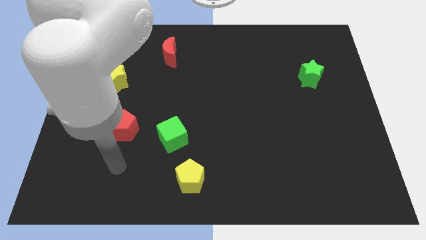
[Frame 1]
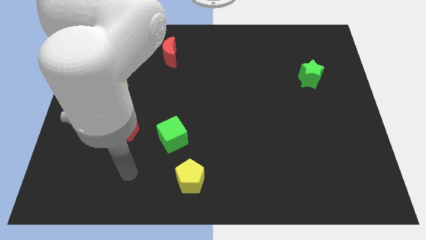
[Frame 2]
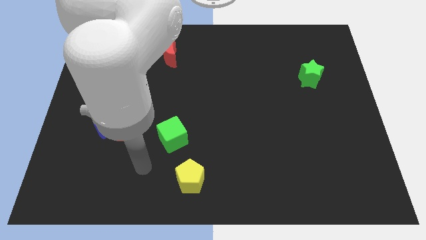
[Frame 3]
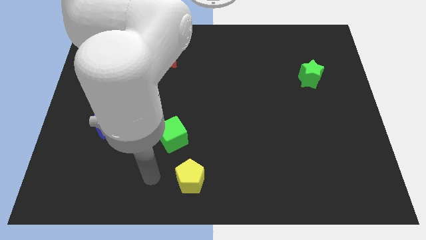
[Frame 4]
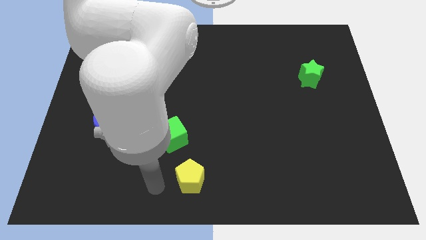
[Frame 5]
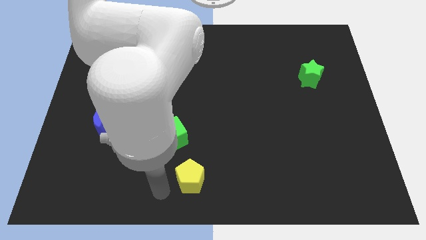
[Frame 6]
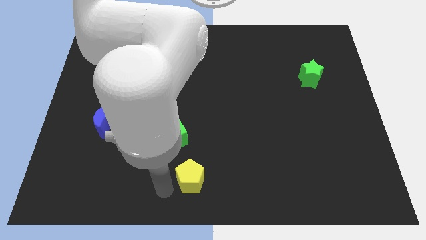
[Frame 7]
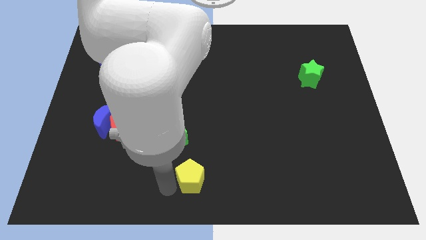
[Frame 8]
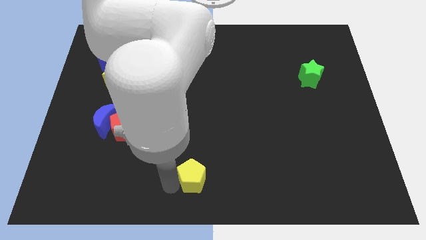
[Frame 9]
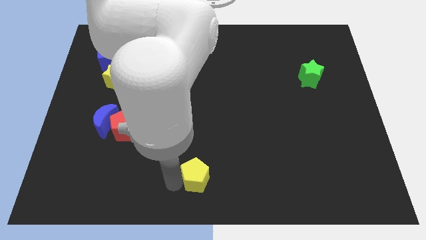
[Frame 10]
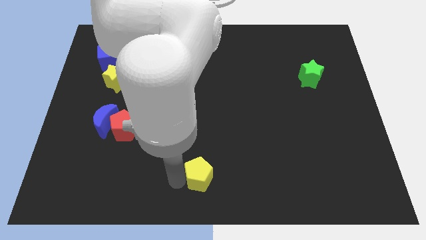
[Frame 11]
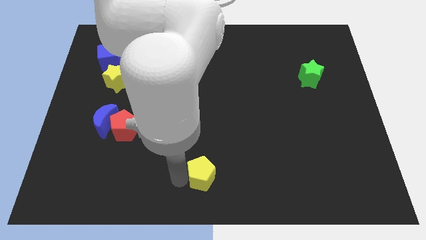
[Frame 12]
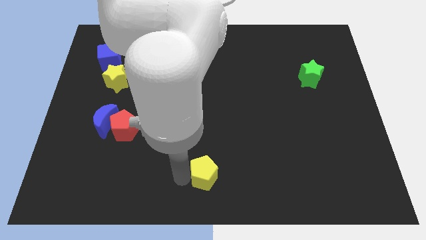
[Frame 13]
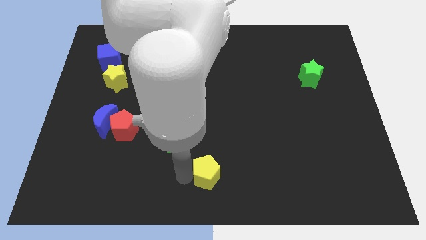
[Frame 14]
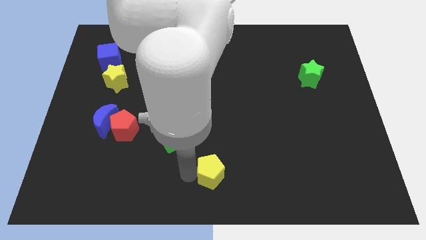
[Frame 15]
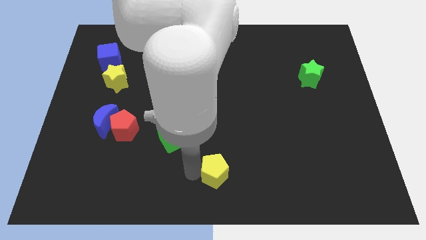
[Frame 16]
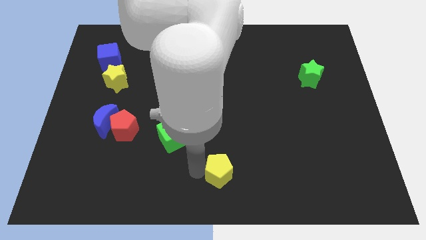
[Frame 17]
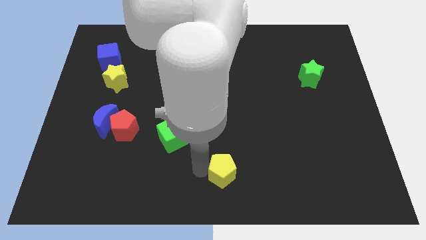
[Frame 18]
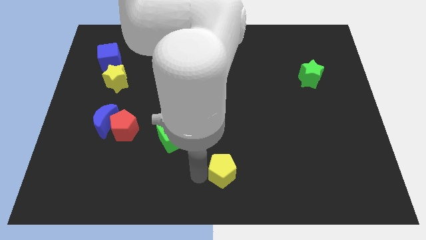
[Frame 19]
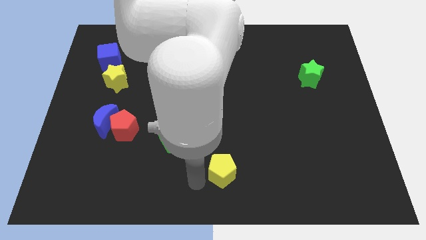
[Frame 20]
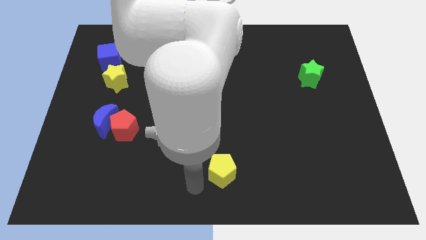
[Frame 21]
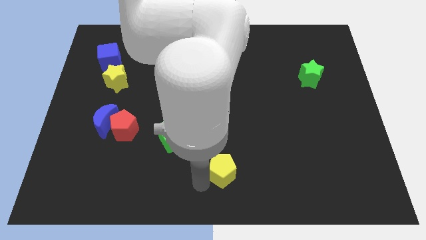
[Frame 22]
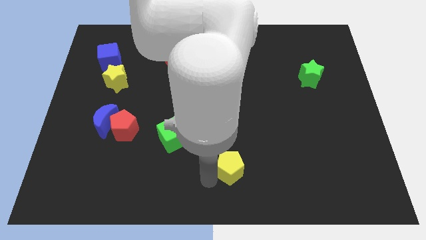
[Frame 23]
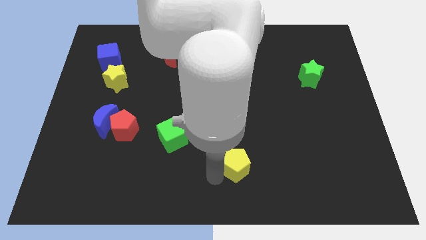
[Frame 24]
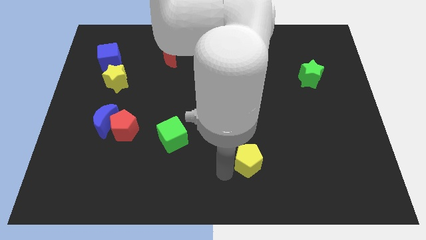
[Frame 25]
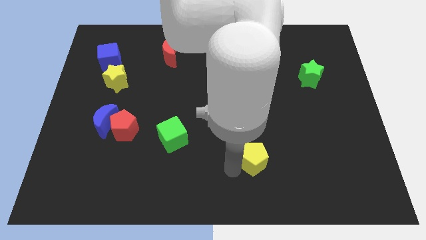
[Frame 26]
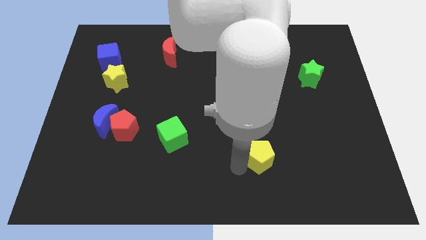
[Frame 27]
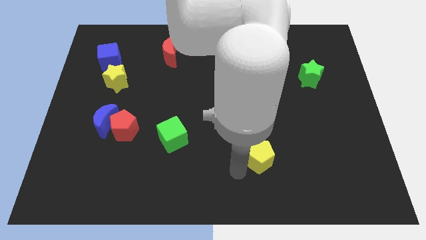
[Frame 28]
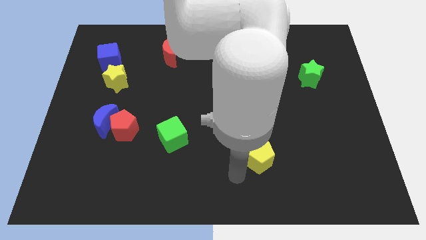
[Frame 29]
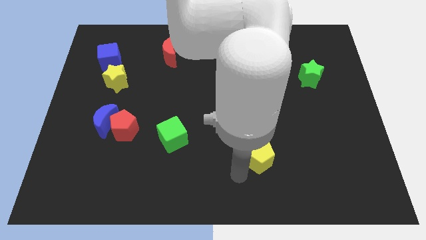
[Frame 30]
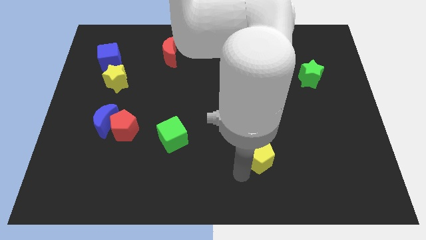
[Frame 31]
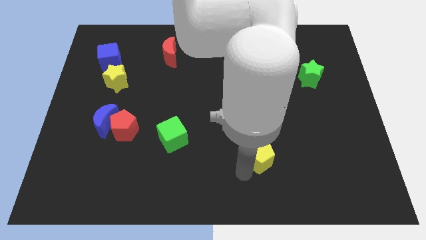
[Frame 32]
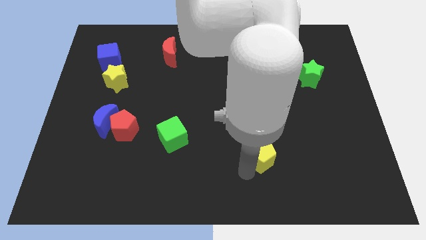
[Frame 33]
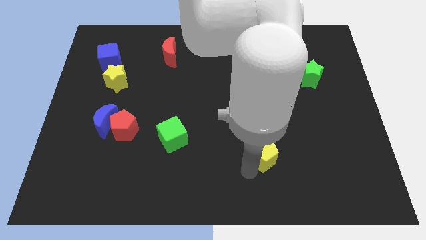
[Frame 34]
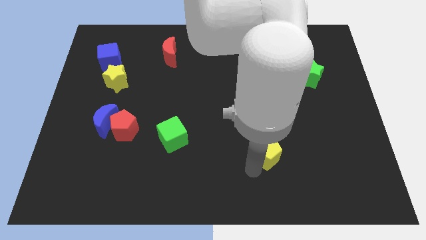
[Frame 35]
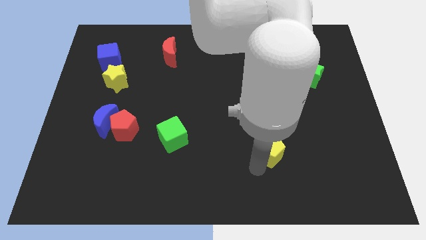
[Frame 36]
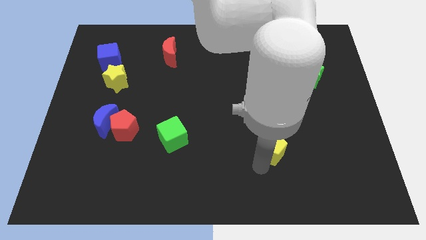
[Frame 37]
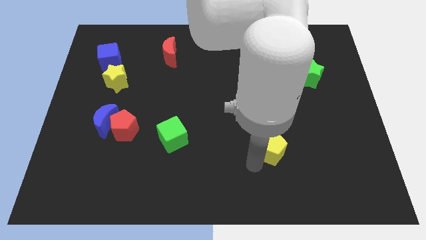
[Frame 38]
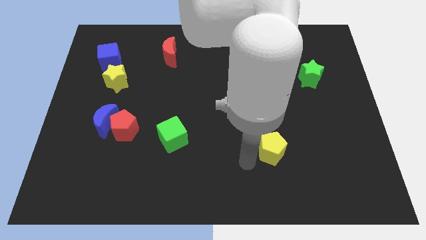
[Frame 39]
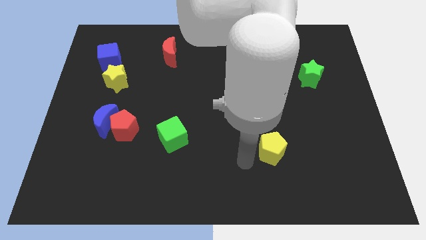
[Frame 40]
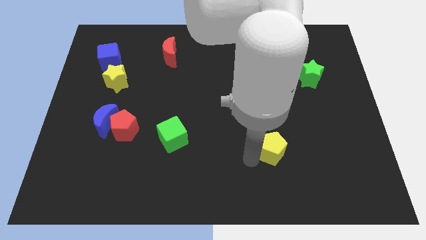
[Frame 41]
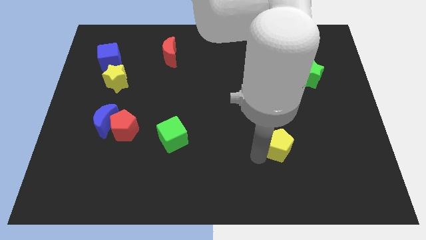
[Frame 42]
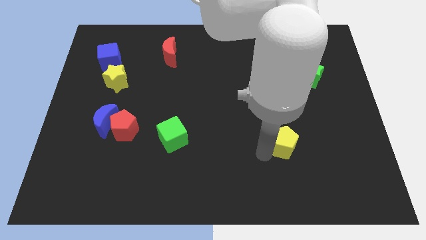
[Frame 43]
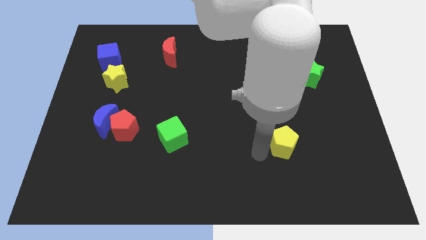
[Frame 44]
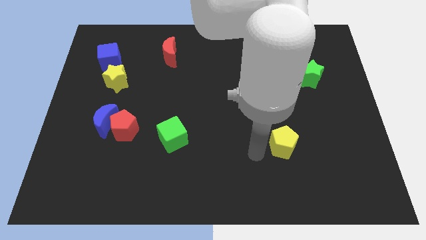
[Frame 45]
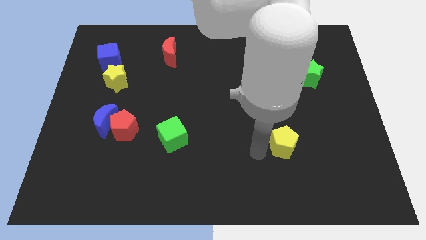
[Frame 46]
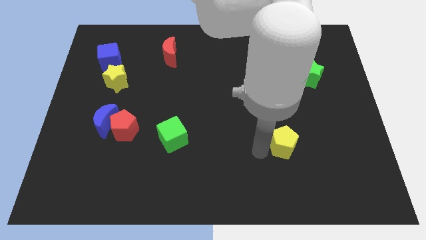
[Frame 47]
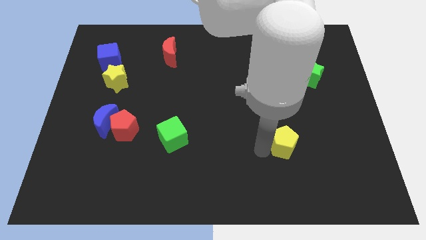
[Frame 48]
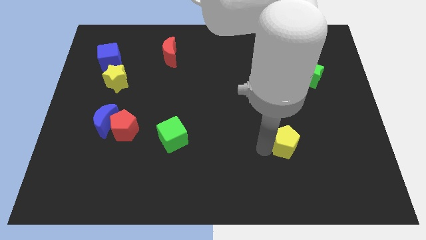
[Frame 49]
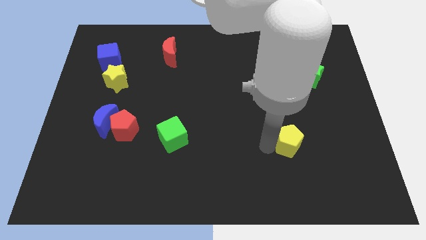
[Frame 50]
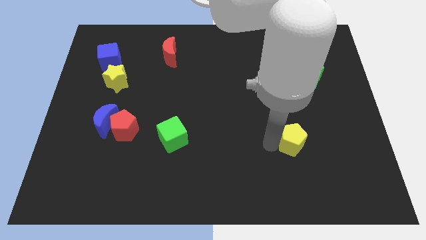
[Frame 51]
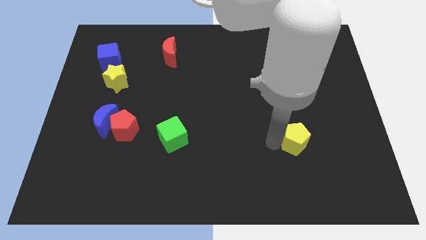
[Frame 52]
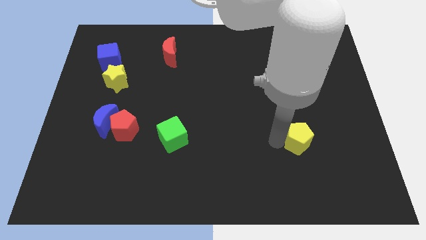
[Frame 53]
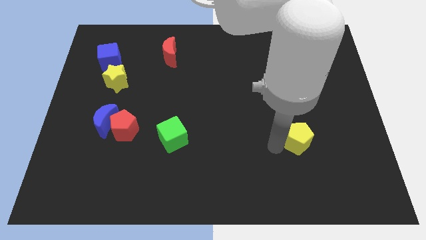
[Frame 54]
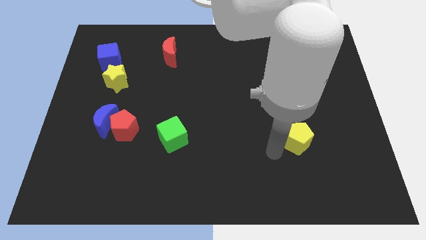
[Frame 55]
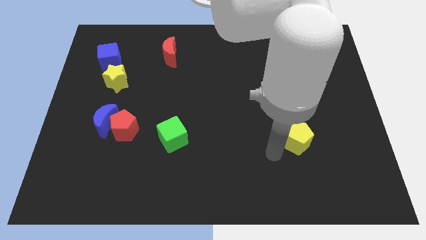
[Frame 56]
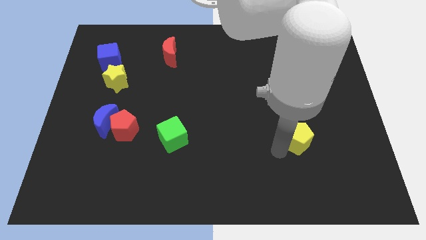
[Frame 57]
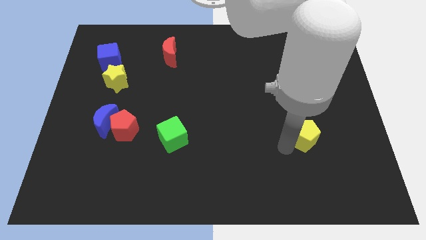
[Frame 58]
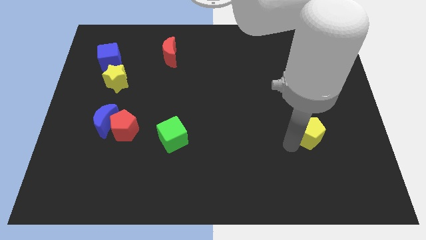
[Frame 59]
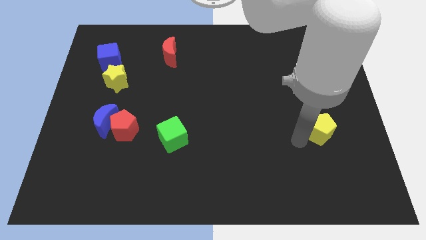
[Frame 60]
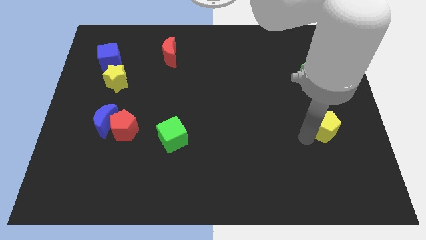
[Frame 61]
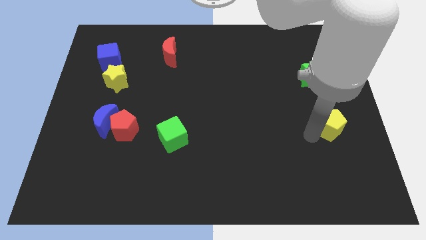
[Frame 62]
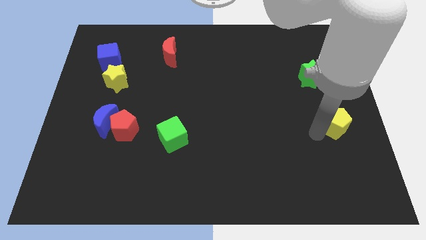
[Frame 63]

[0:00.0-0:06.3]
slide the yellow pentagon to the center right

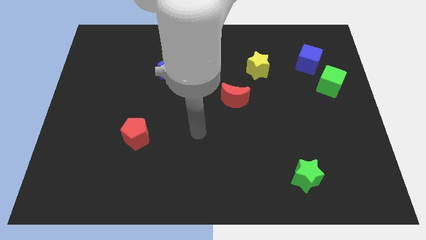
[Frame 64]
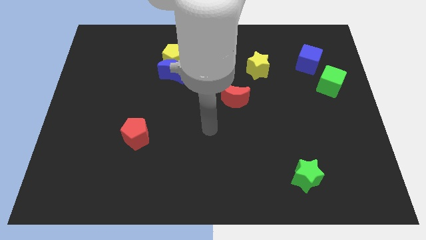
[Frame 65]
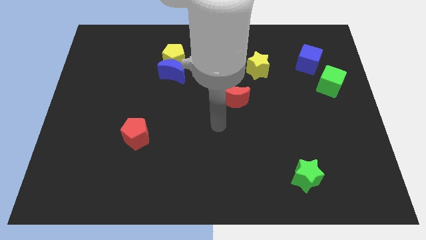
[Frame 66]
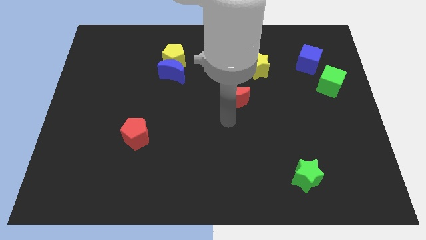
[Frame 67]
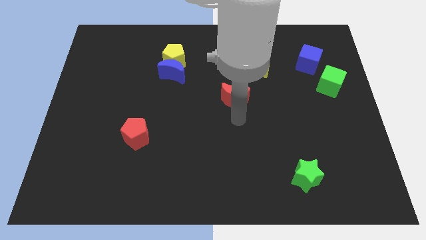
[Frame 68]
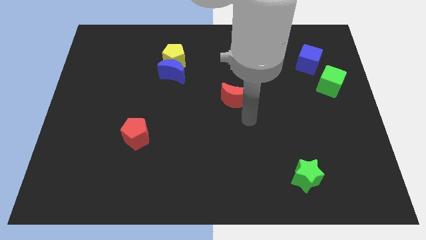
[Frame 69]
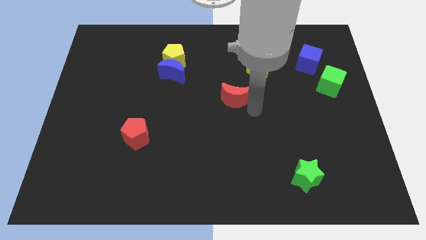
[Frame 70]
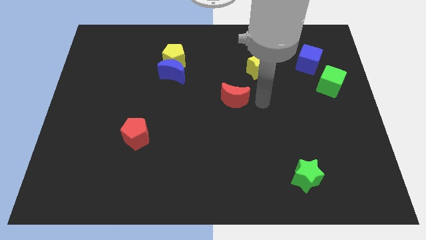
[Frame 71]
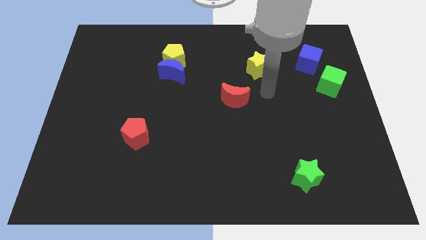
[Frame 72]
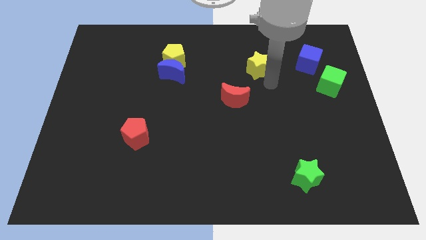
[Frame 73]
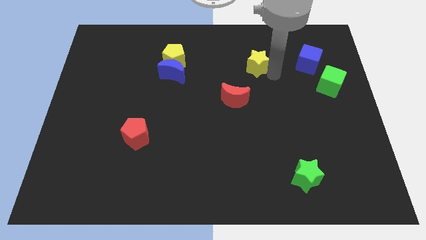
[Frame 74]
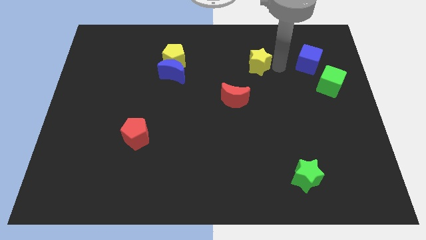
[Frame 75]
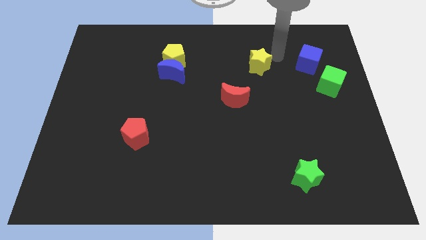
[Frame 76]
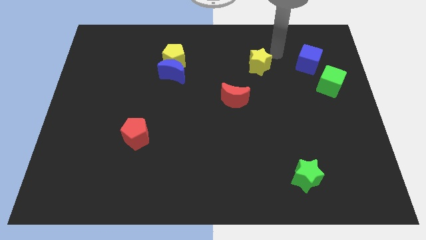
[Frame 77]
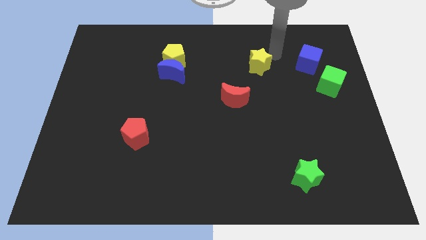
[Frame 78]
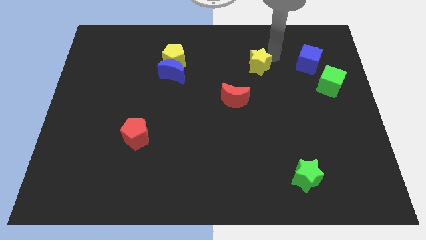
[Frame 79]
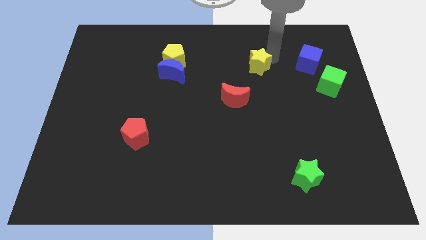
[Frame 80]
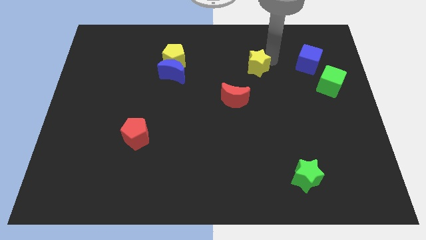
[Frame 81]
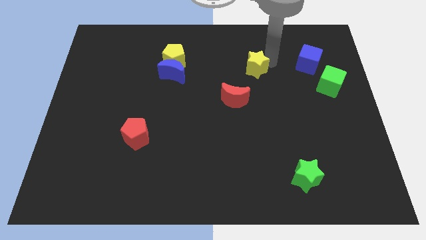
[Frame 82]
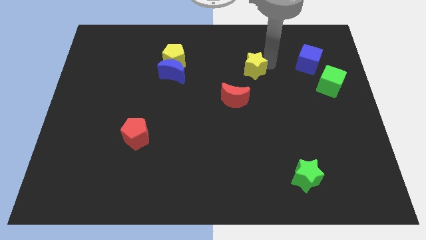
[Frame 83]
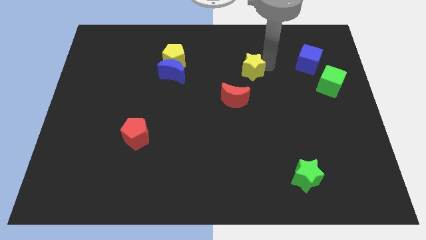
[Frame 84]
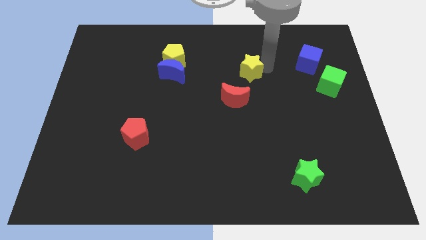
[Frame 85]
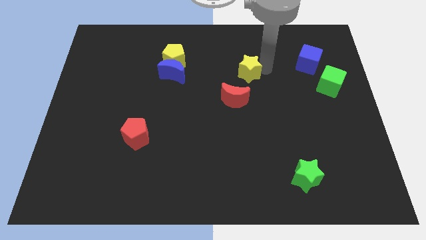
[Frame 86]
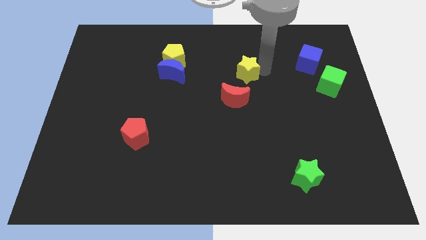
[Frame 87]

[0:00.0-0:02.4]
put the yellow star to the middle
